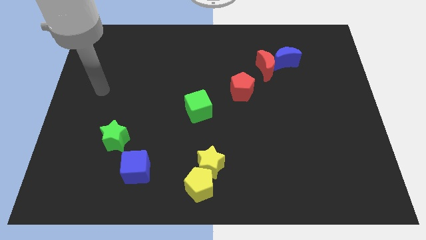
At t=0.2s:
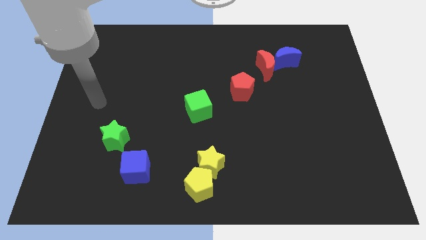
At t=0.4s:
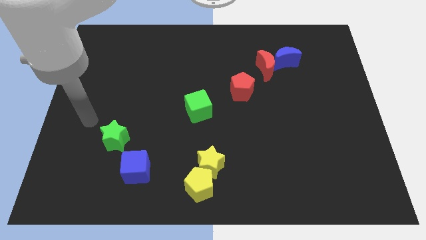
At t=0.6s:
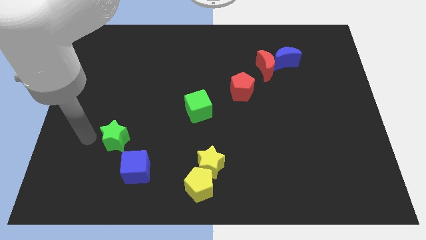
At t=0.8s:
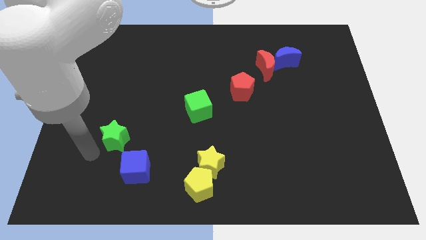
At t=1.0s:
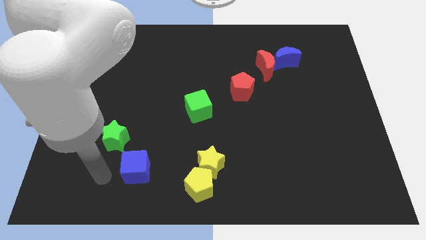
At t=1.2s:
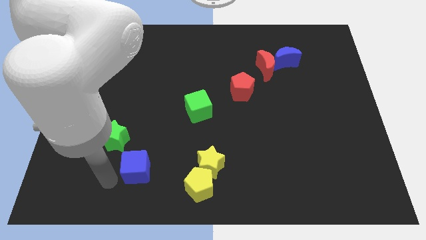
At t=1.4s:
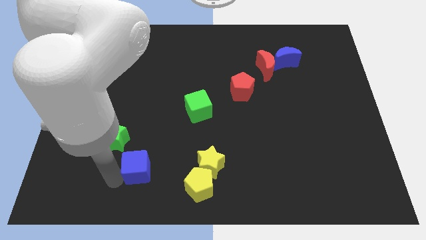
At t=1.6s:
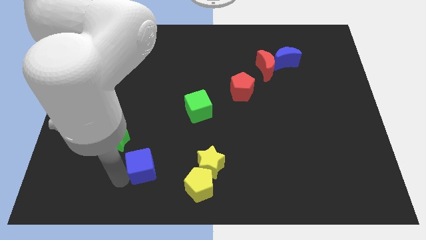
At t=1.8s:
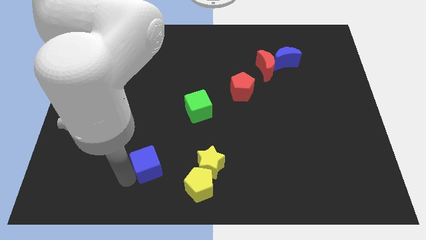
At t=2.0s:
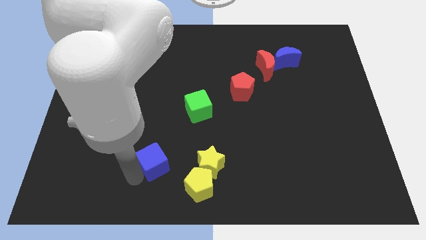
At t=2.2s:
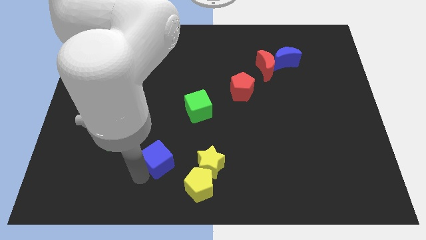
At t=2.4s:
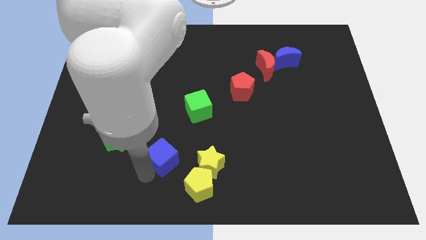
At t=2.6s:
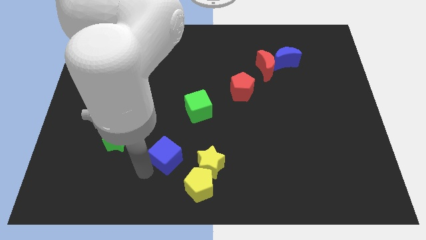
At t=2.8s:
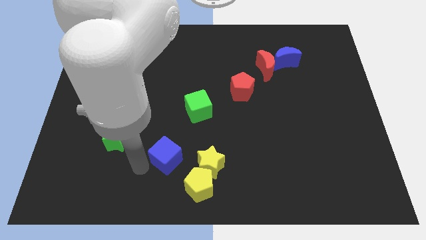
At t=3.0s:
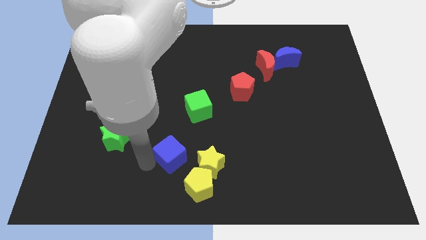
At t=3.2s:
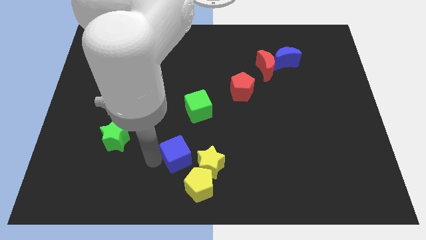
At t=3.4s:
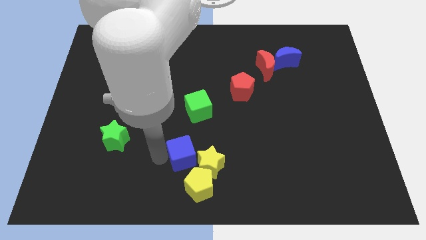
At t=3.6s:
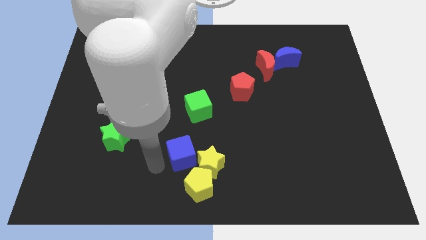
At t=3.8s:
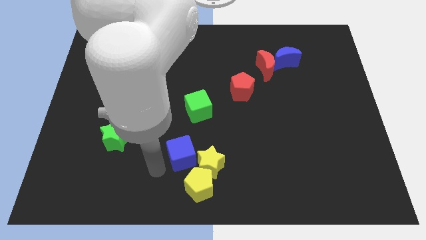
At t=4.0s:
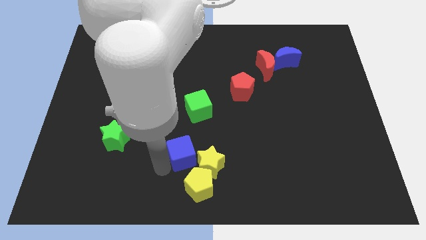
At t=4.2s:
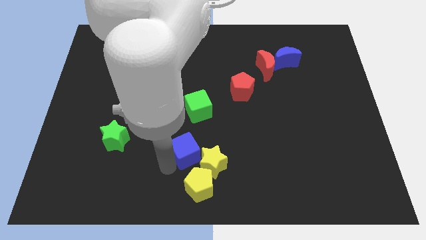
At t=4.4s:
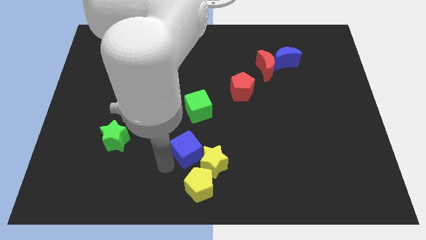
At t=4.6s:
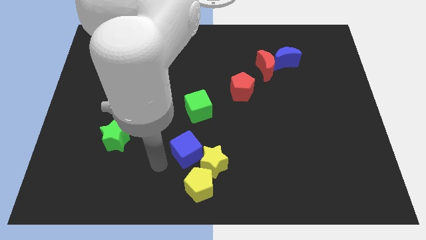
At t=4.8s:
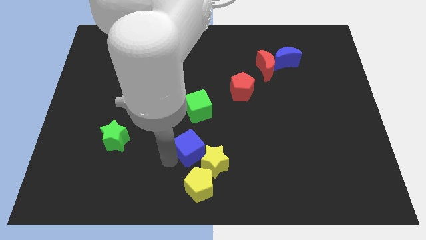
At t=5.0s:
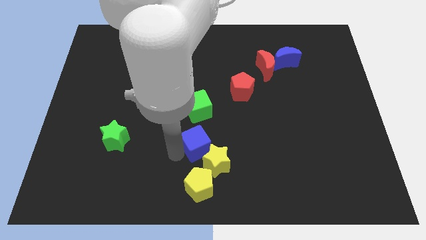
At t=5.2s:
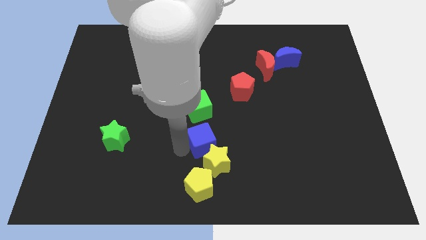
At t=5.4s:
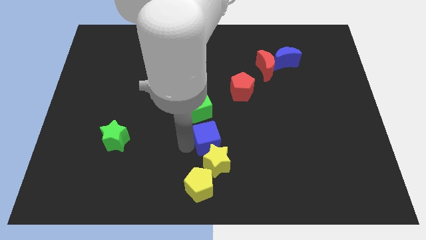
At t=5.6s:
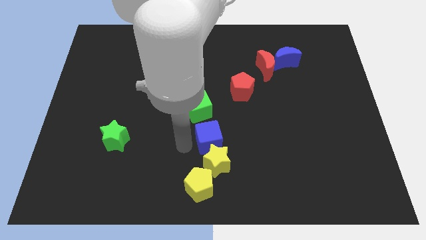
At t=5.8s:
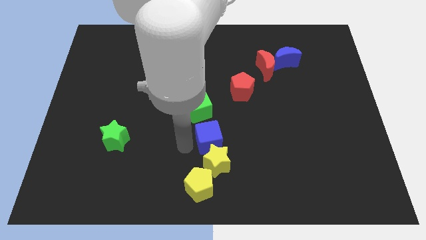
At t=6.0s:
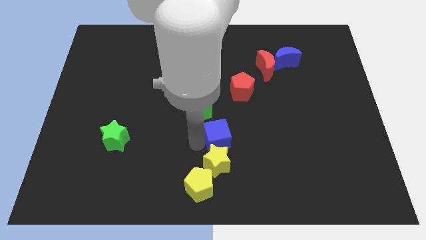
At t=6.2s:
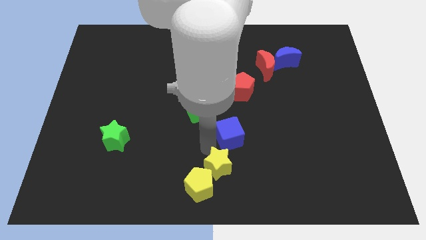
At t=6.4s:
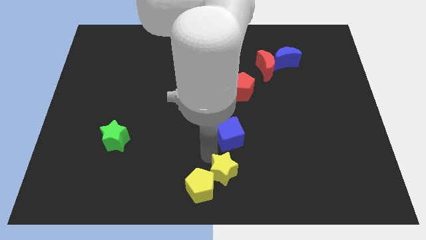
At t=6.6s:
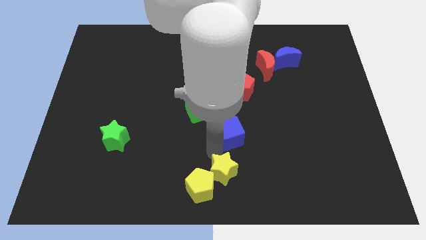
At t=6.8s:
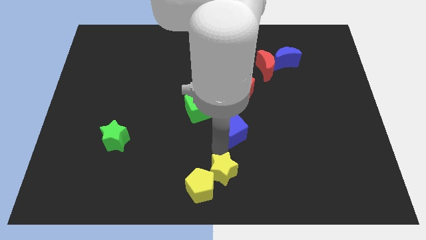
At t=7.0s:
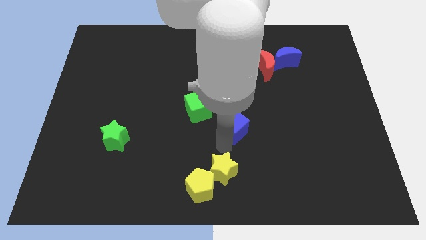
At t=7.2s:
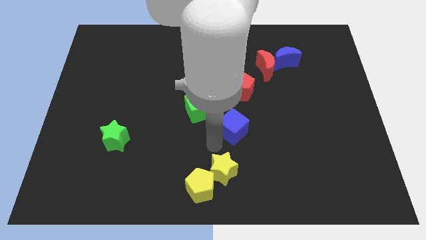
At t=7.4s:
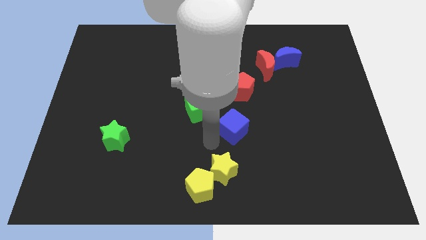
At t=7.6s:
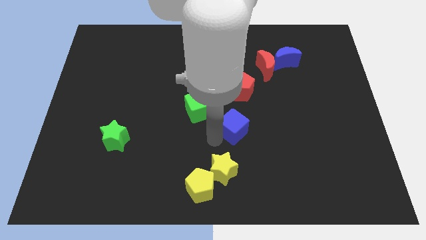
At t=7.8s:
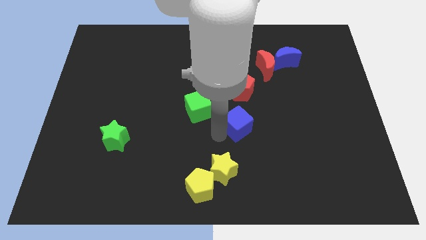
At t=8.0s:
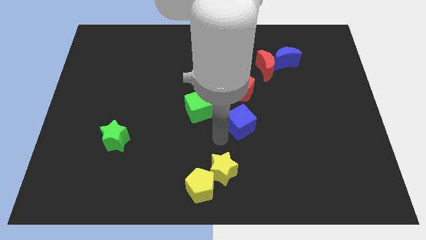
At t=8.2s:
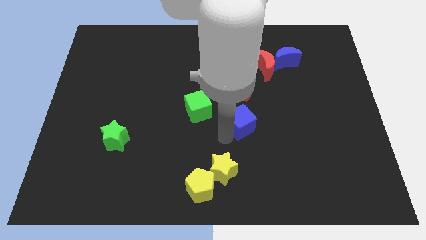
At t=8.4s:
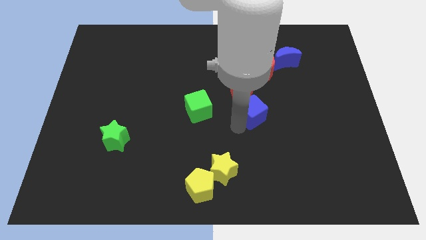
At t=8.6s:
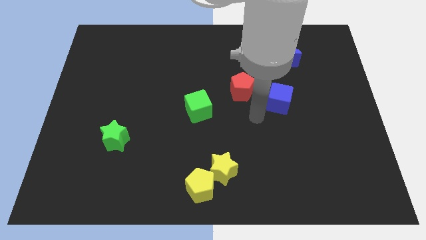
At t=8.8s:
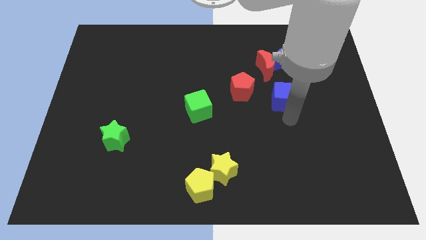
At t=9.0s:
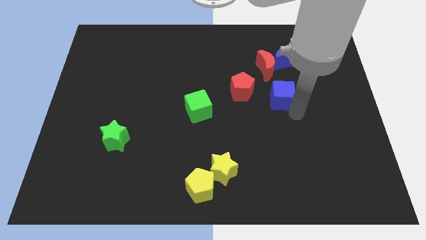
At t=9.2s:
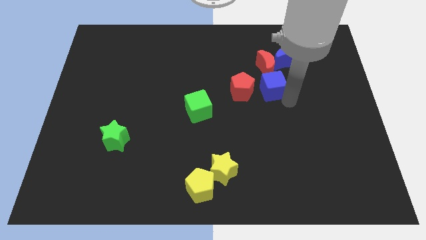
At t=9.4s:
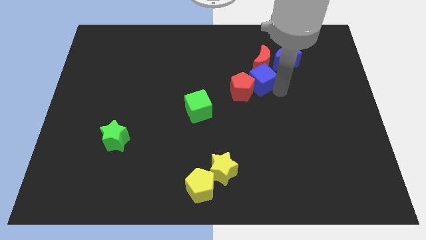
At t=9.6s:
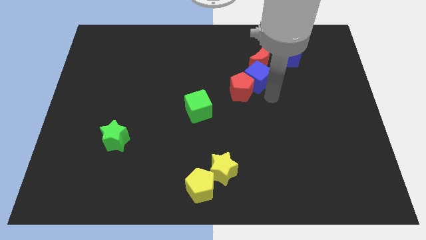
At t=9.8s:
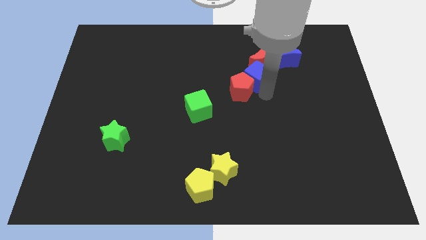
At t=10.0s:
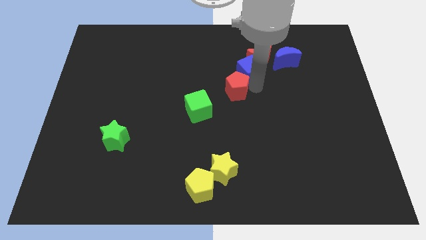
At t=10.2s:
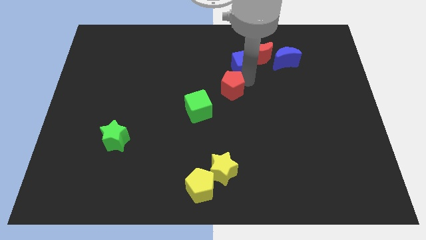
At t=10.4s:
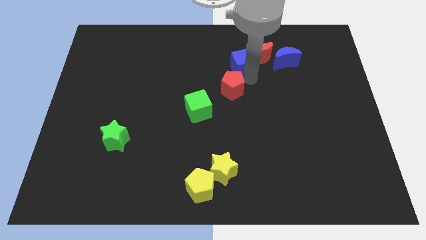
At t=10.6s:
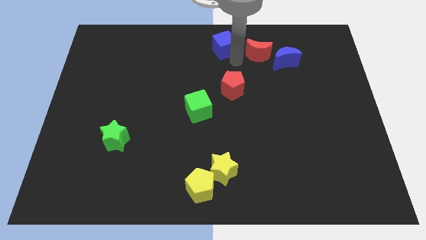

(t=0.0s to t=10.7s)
slide the blue cube to the top side

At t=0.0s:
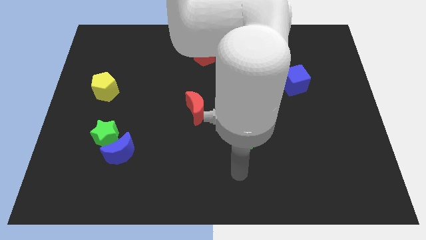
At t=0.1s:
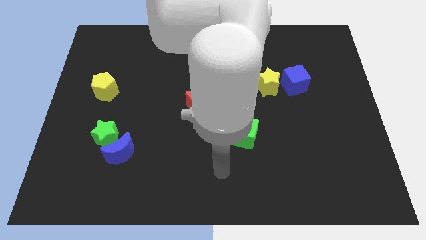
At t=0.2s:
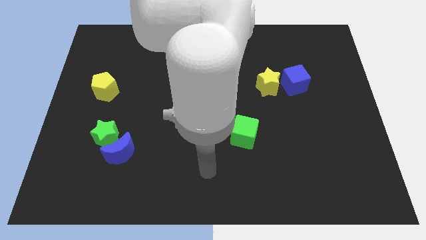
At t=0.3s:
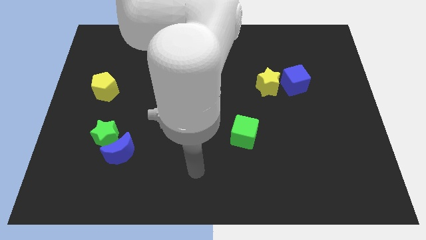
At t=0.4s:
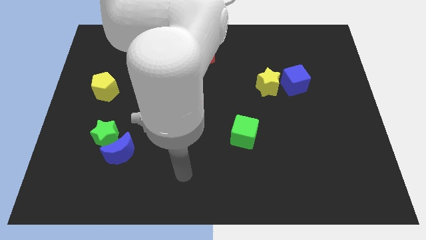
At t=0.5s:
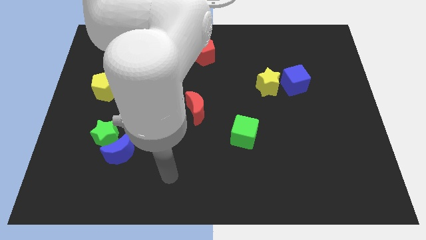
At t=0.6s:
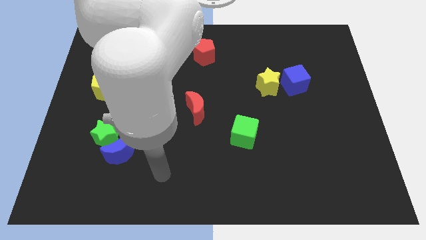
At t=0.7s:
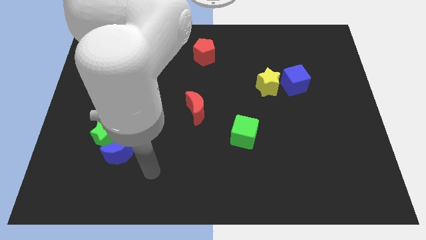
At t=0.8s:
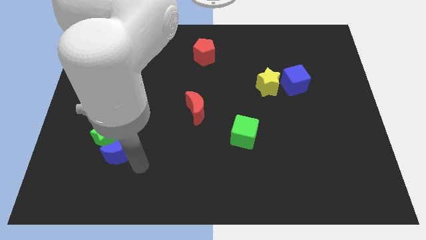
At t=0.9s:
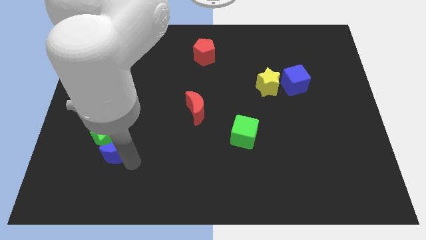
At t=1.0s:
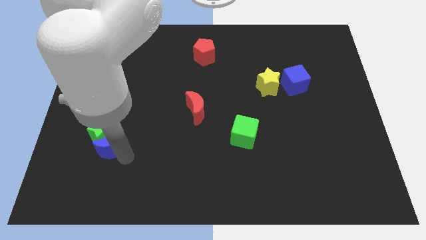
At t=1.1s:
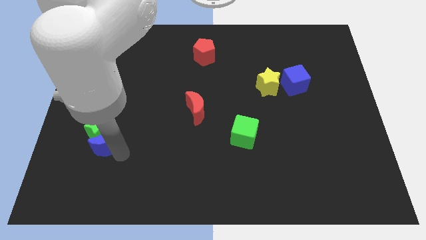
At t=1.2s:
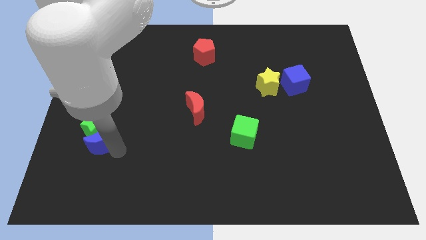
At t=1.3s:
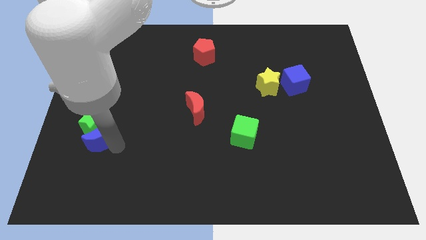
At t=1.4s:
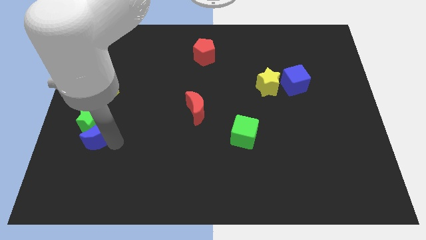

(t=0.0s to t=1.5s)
push the green star to the left side of the board
